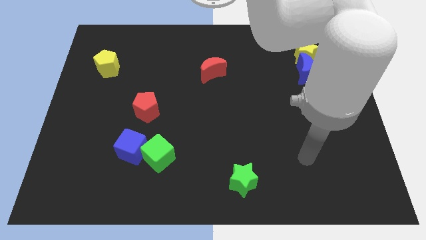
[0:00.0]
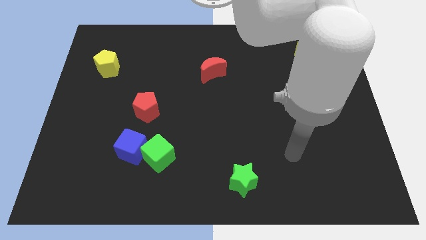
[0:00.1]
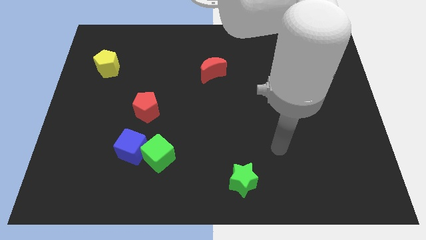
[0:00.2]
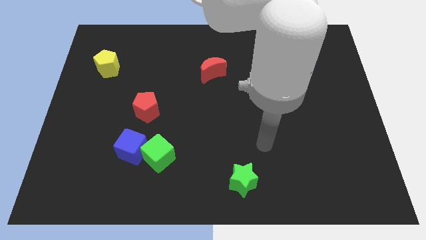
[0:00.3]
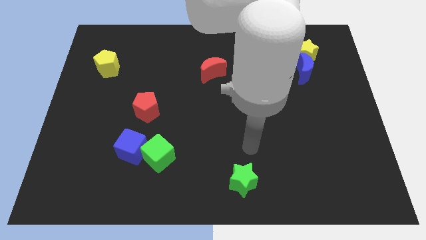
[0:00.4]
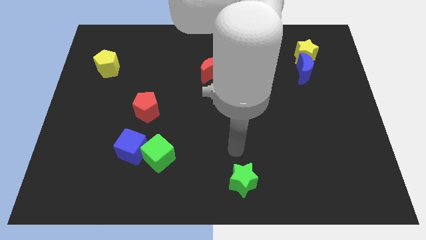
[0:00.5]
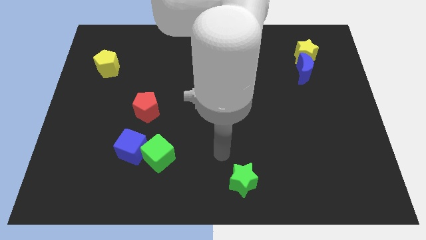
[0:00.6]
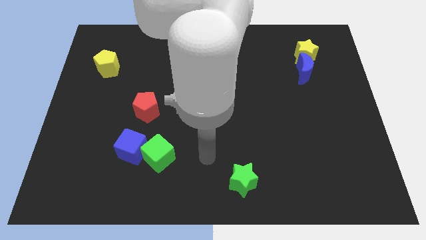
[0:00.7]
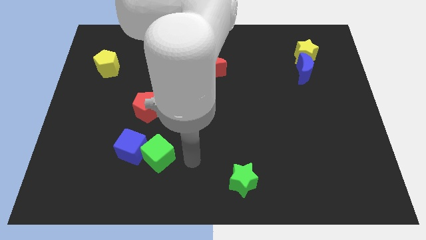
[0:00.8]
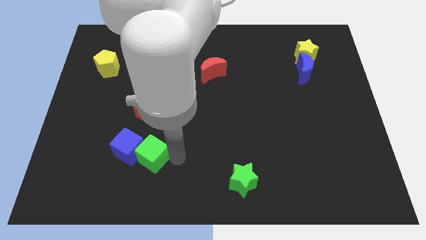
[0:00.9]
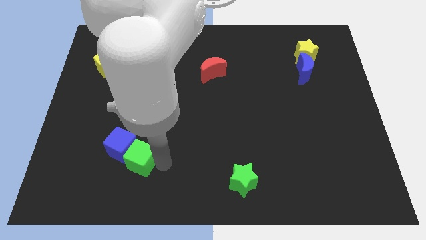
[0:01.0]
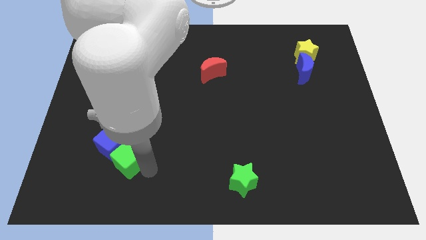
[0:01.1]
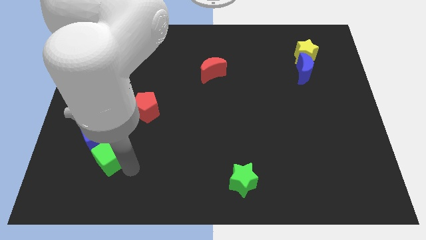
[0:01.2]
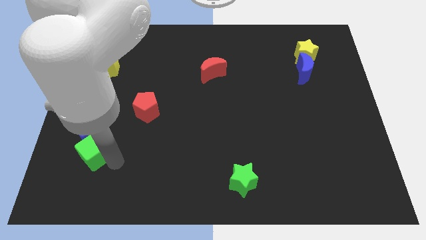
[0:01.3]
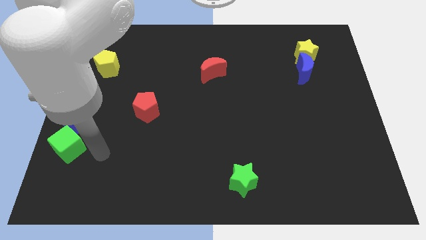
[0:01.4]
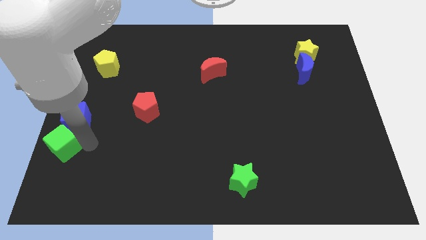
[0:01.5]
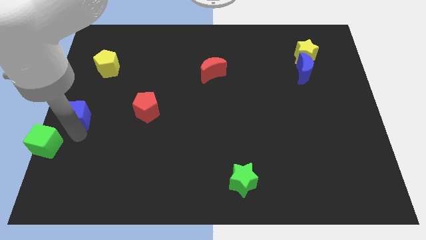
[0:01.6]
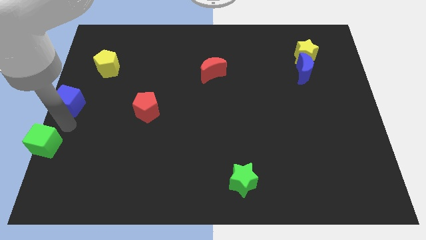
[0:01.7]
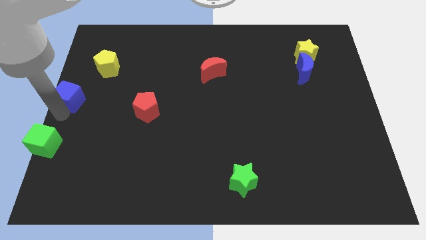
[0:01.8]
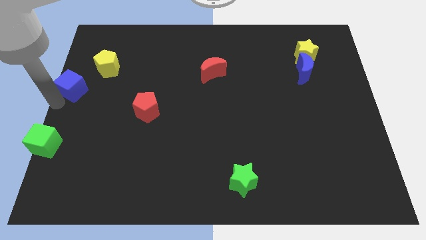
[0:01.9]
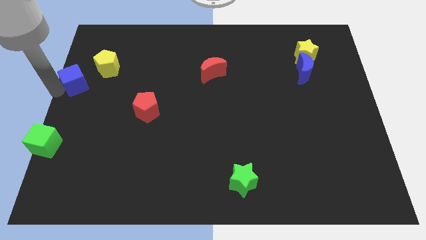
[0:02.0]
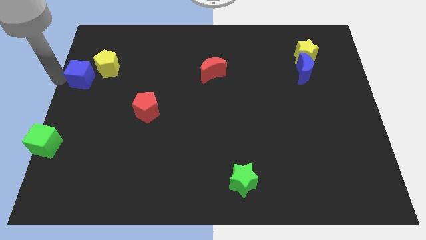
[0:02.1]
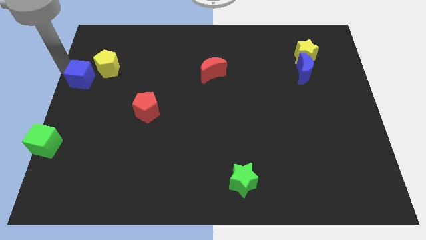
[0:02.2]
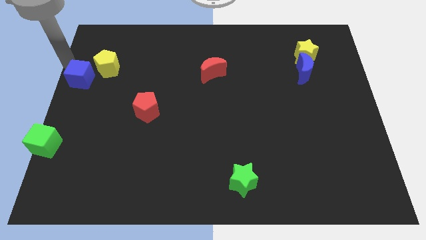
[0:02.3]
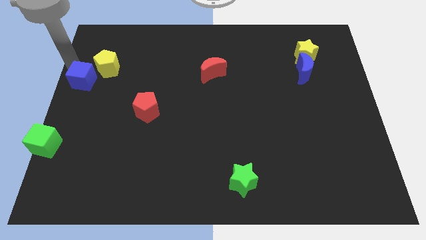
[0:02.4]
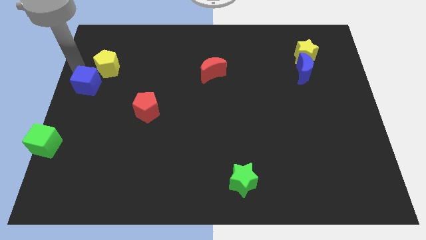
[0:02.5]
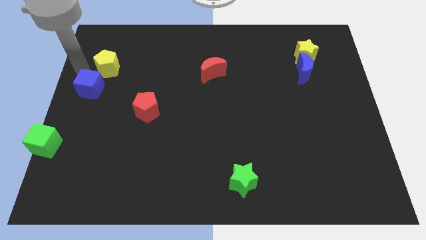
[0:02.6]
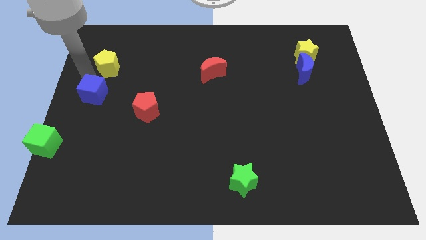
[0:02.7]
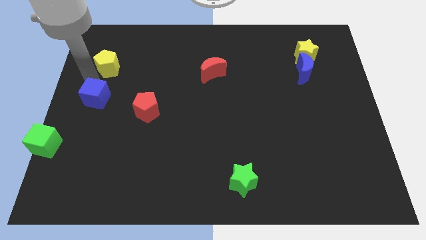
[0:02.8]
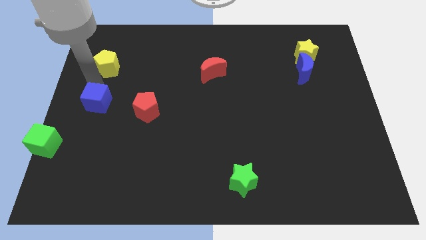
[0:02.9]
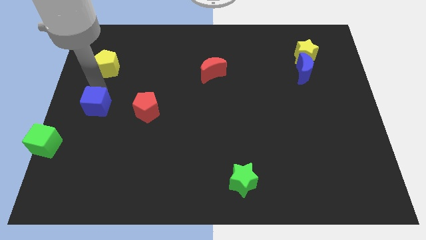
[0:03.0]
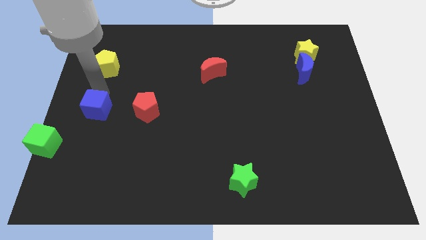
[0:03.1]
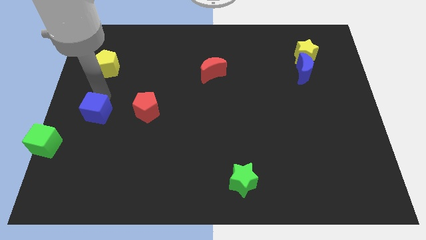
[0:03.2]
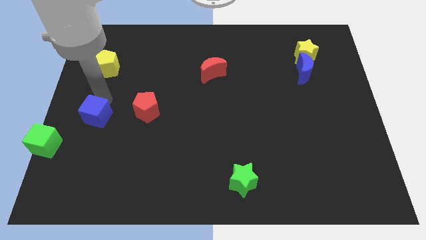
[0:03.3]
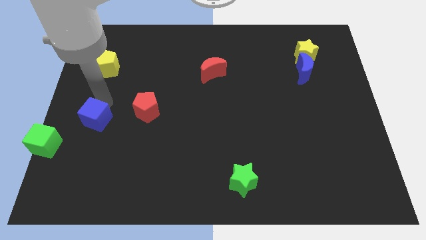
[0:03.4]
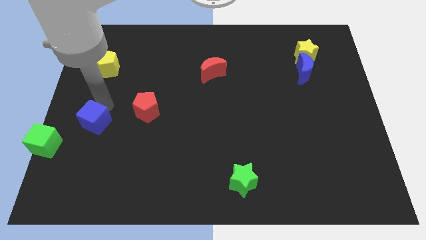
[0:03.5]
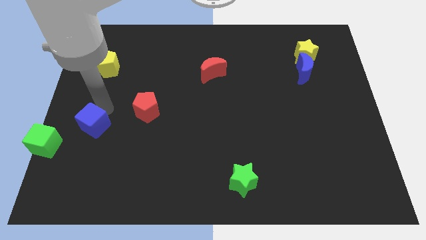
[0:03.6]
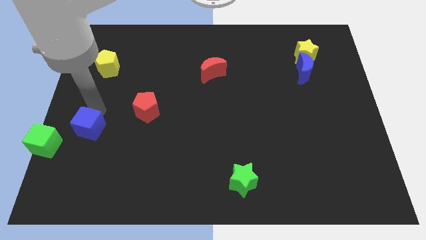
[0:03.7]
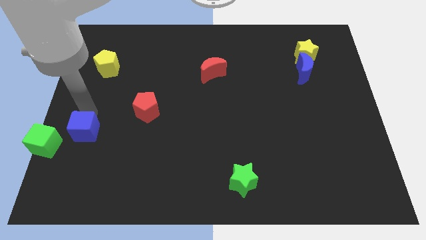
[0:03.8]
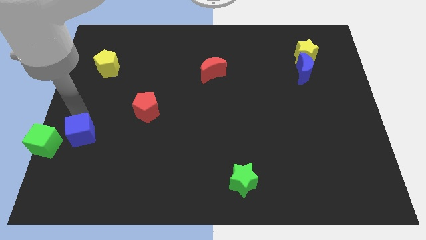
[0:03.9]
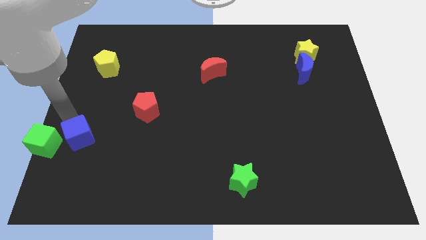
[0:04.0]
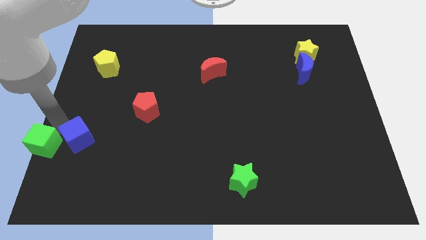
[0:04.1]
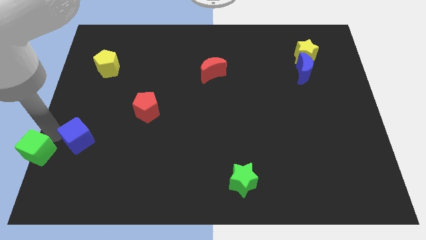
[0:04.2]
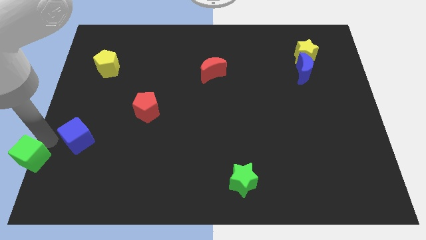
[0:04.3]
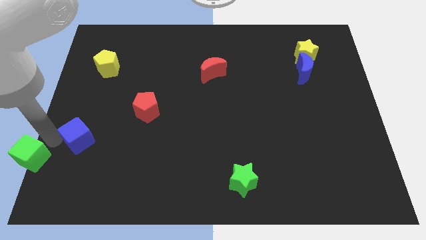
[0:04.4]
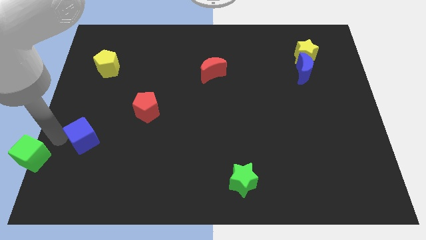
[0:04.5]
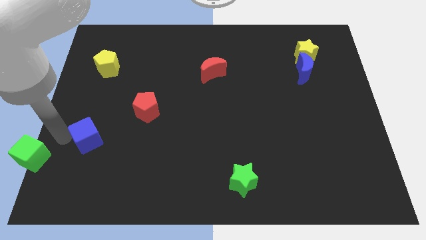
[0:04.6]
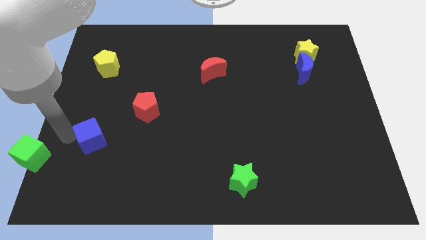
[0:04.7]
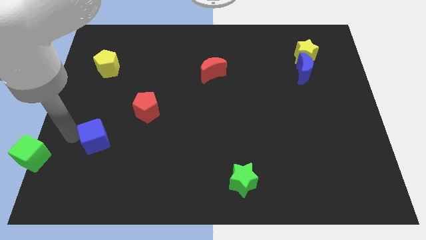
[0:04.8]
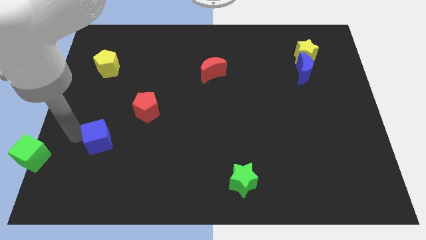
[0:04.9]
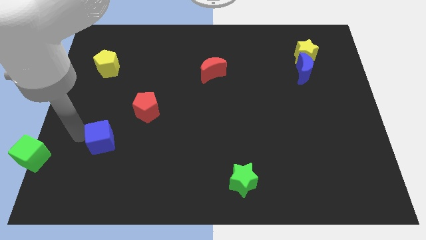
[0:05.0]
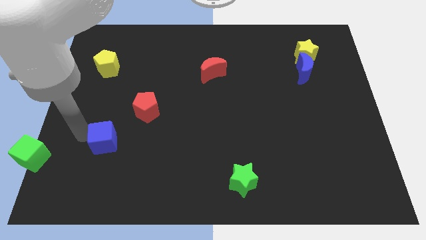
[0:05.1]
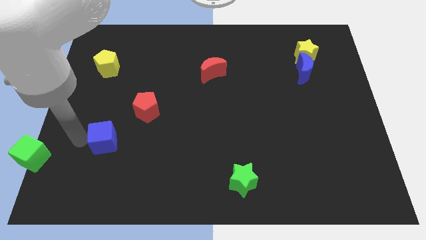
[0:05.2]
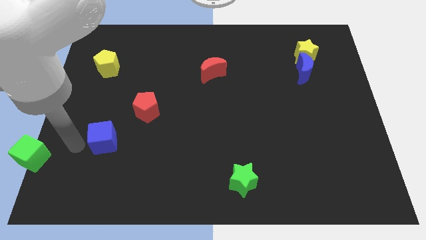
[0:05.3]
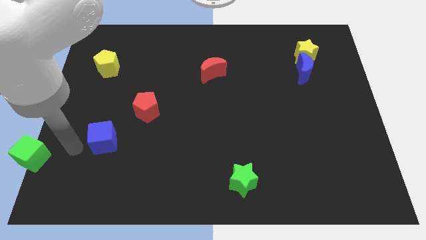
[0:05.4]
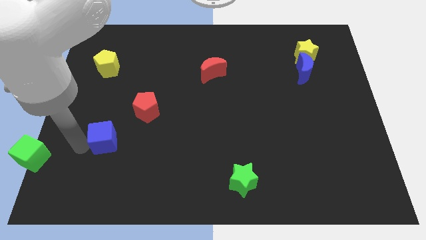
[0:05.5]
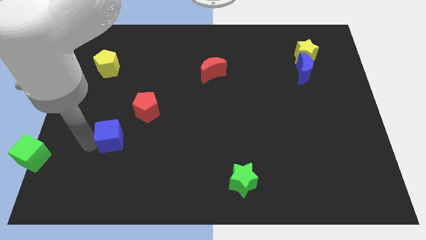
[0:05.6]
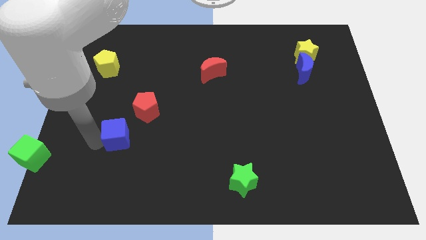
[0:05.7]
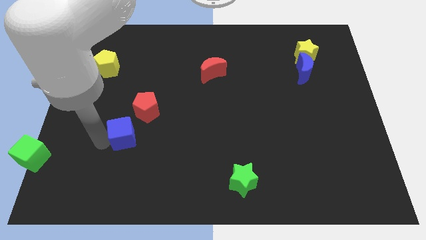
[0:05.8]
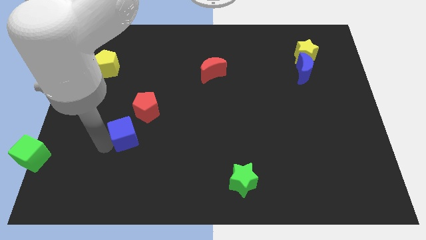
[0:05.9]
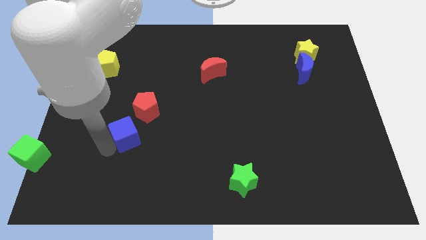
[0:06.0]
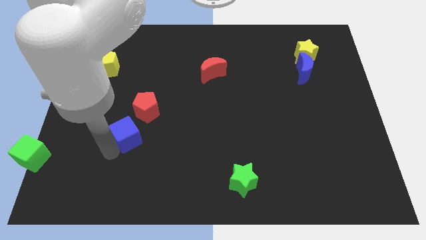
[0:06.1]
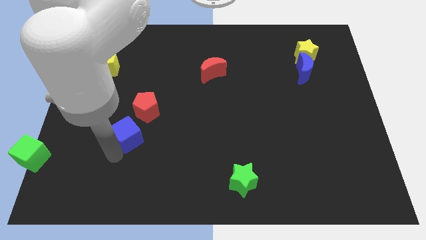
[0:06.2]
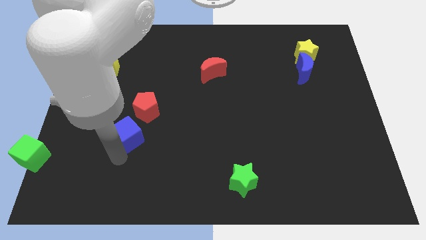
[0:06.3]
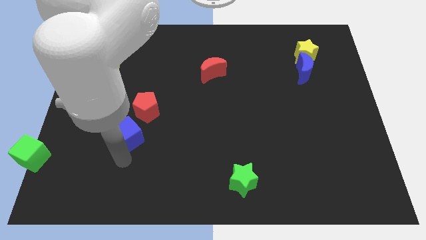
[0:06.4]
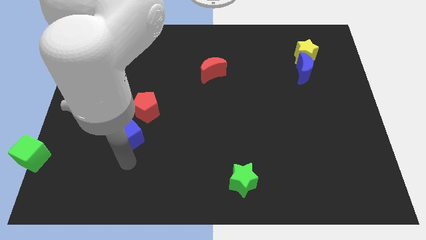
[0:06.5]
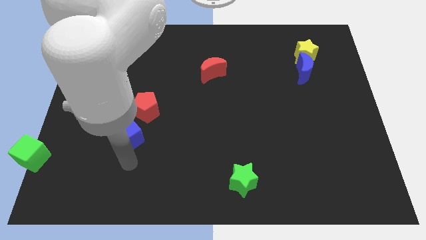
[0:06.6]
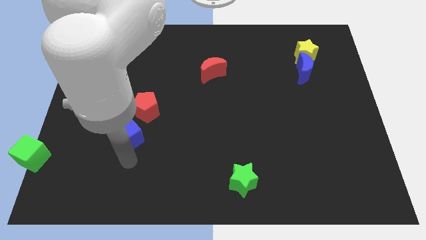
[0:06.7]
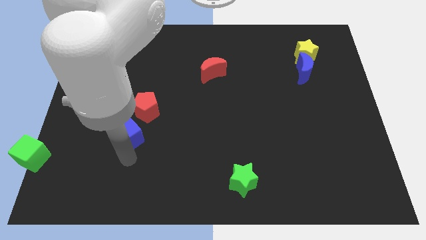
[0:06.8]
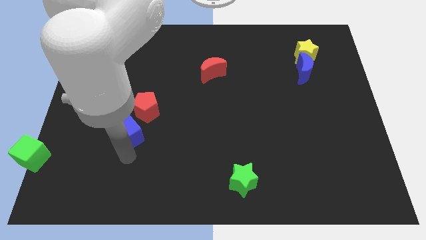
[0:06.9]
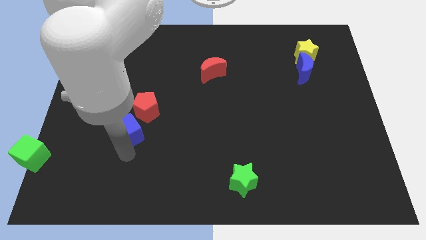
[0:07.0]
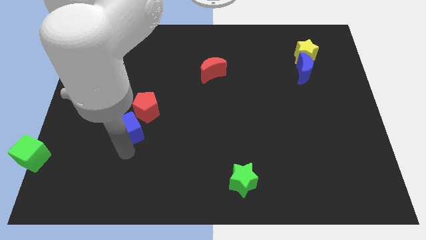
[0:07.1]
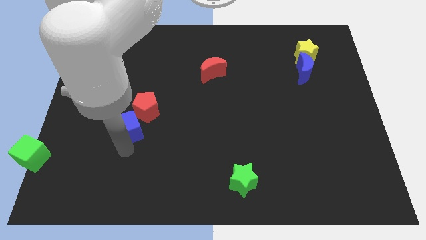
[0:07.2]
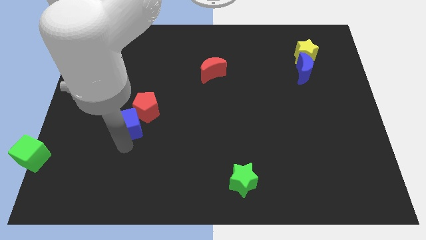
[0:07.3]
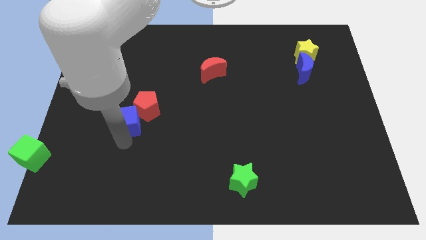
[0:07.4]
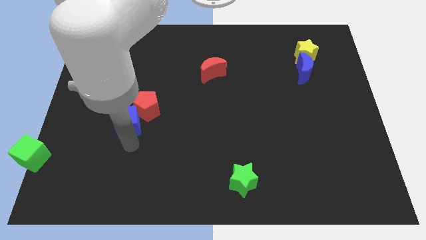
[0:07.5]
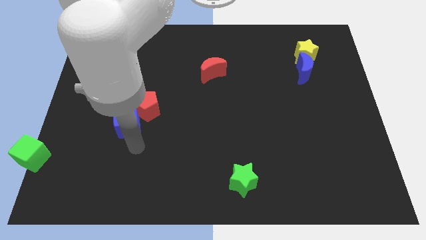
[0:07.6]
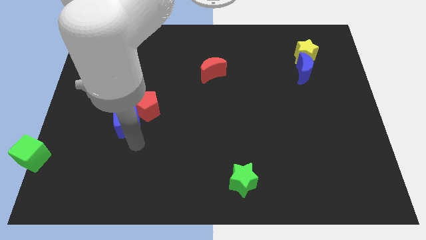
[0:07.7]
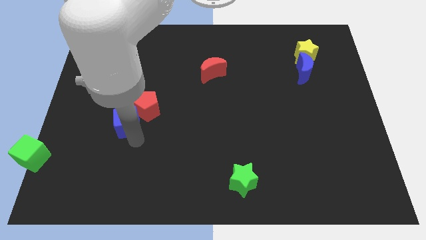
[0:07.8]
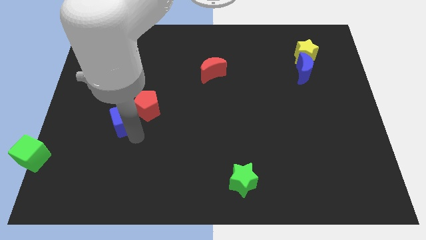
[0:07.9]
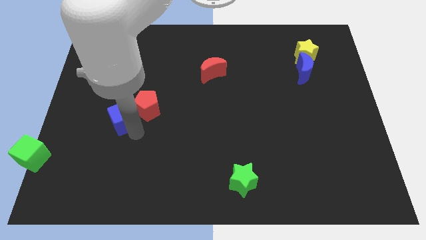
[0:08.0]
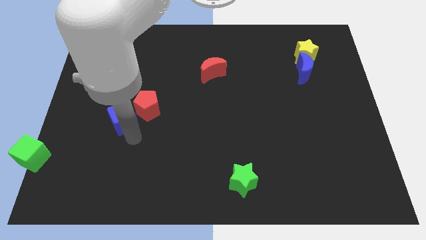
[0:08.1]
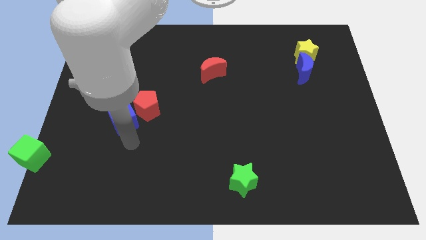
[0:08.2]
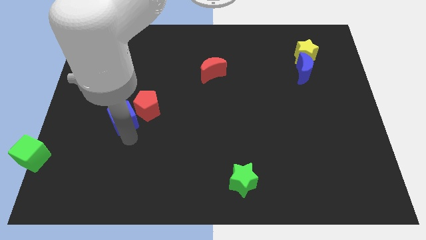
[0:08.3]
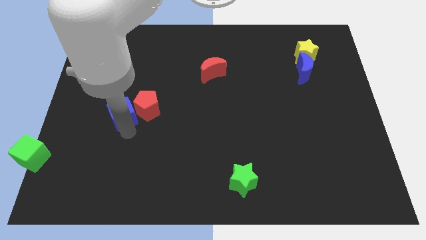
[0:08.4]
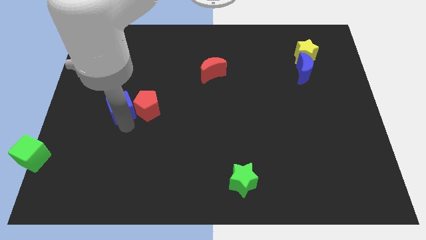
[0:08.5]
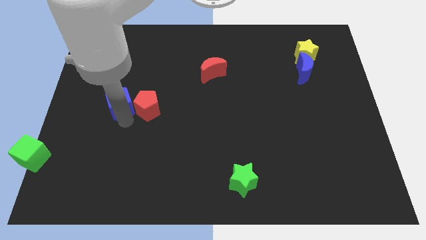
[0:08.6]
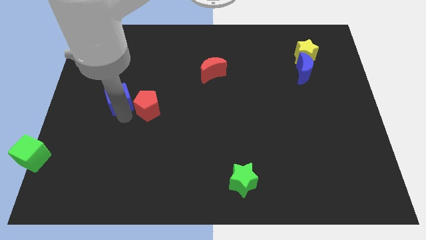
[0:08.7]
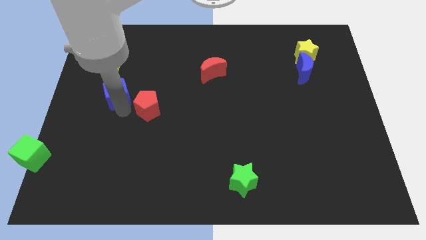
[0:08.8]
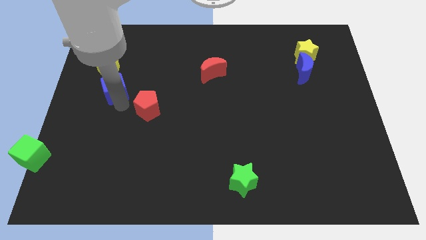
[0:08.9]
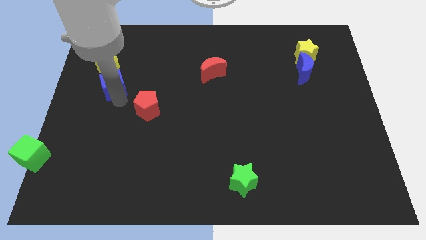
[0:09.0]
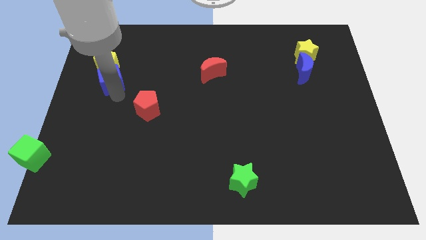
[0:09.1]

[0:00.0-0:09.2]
put the blue cube close to the yellow pentagon
